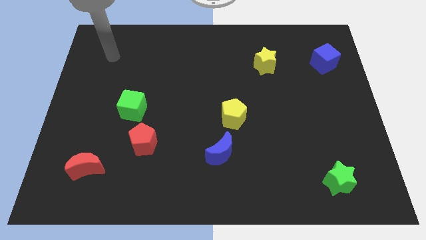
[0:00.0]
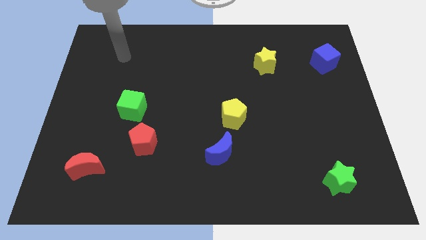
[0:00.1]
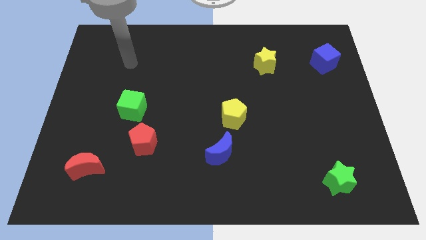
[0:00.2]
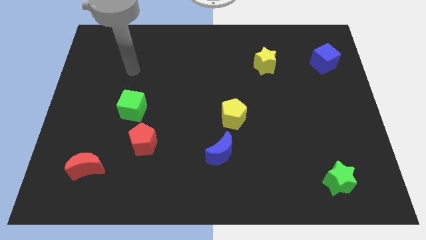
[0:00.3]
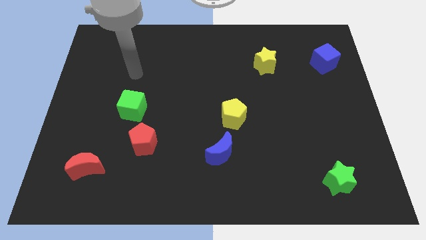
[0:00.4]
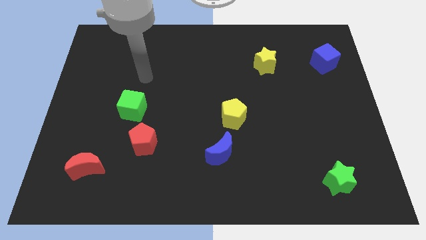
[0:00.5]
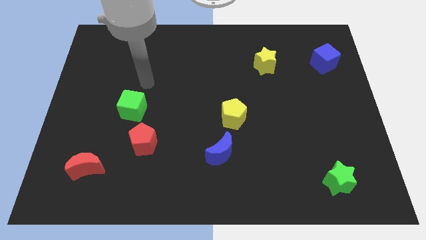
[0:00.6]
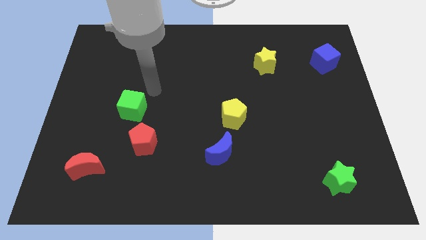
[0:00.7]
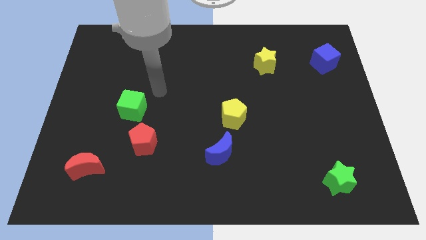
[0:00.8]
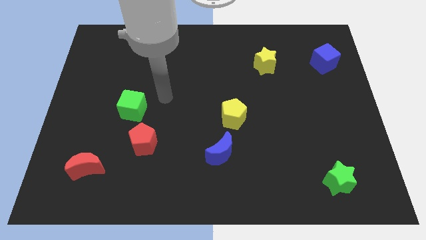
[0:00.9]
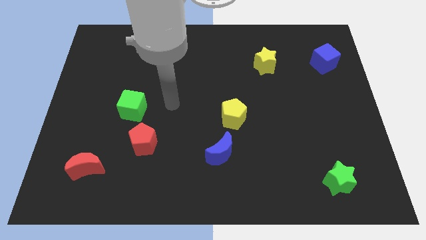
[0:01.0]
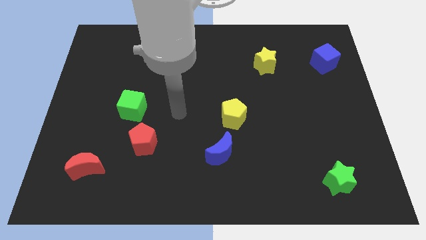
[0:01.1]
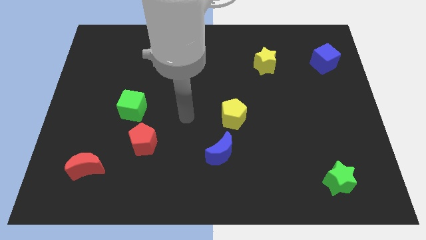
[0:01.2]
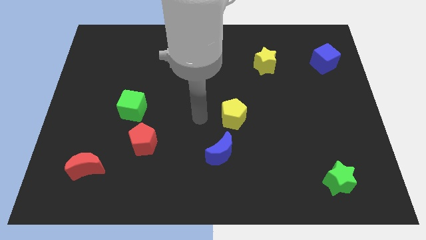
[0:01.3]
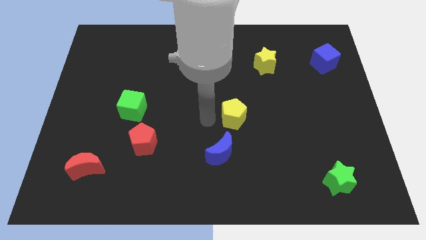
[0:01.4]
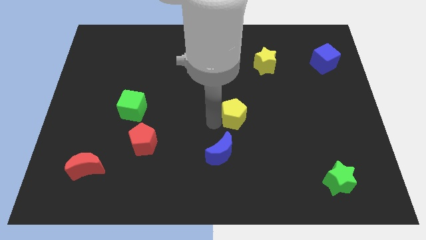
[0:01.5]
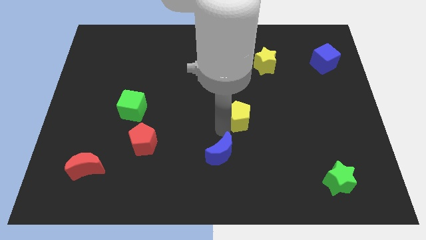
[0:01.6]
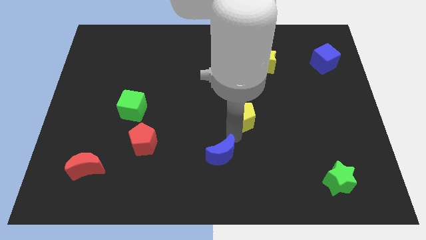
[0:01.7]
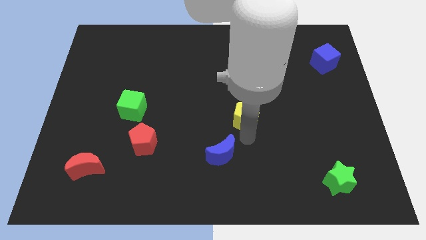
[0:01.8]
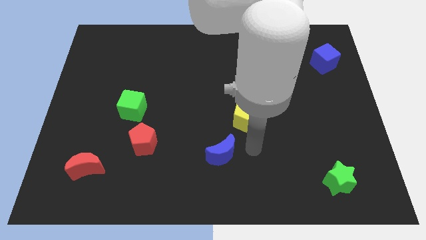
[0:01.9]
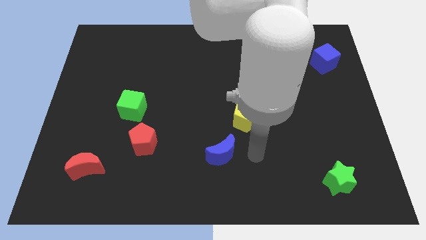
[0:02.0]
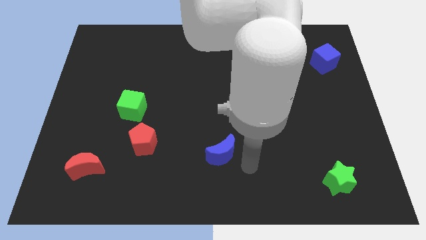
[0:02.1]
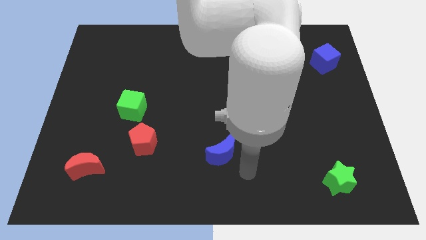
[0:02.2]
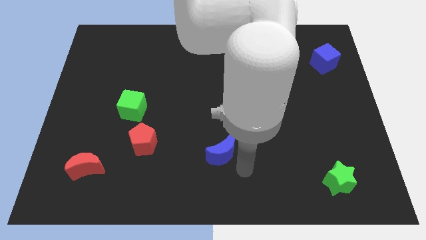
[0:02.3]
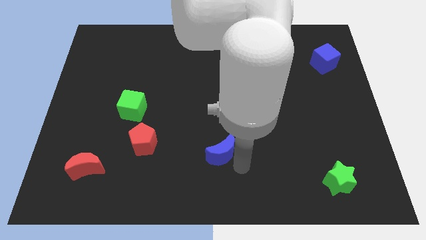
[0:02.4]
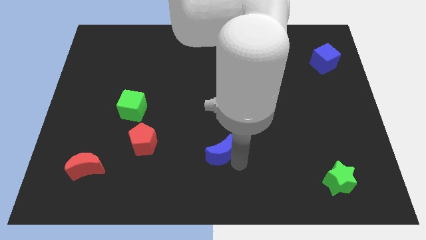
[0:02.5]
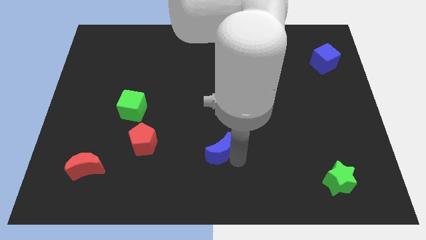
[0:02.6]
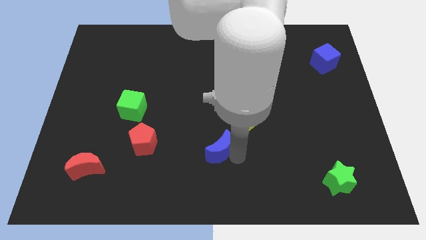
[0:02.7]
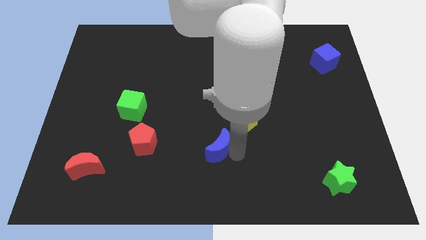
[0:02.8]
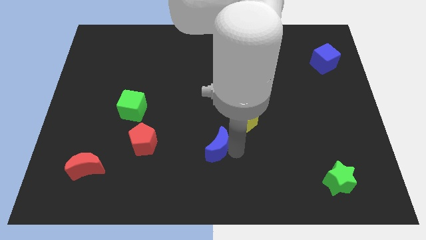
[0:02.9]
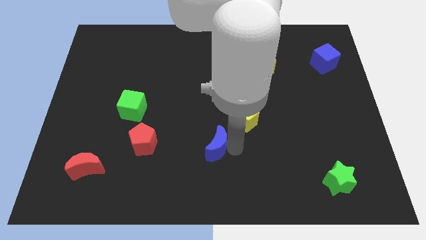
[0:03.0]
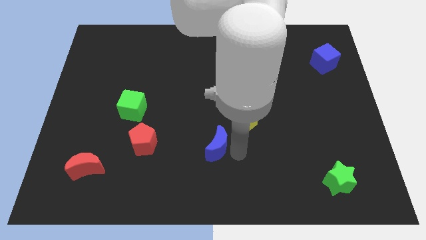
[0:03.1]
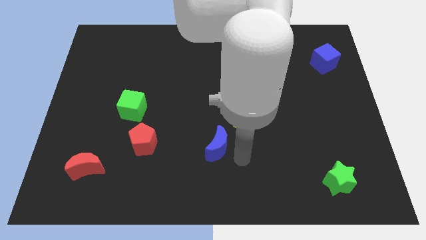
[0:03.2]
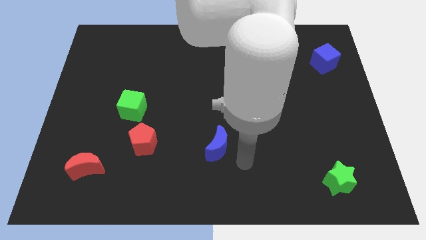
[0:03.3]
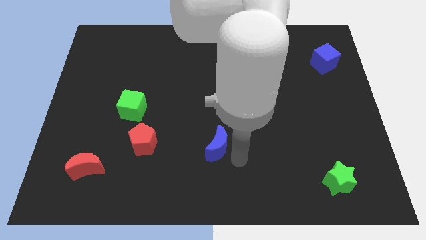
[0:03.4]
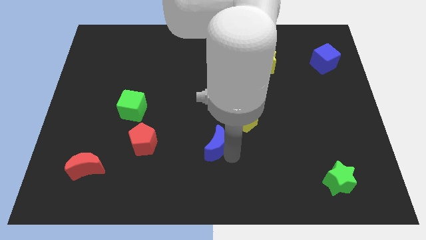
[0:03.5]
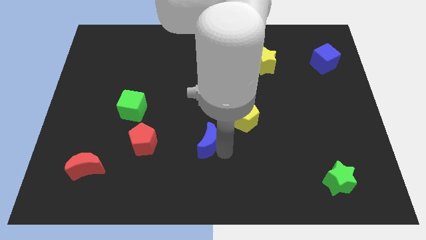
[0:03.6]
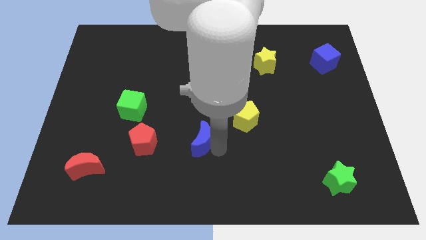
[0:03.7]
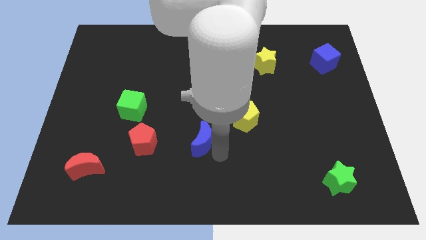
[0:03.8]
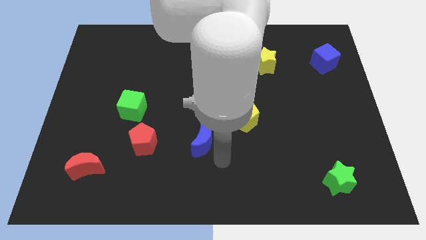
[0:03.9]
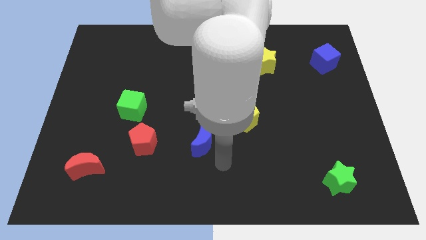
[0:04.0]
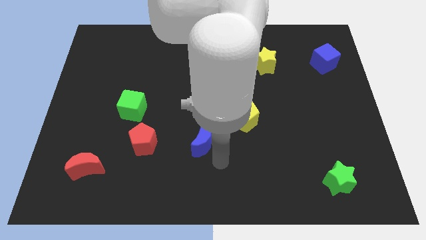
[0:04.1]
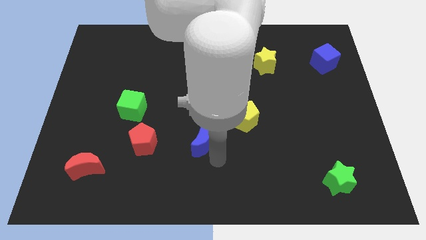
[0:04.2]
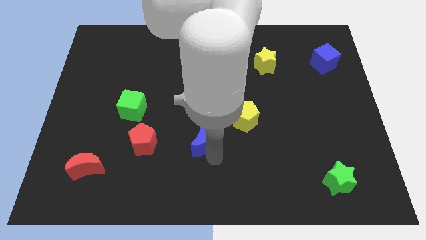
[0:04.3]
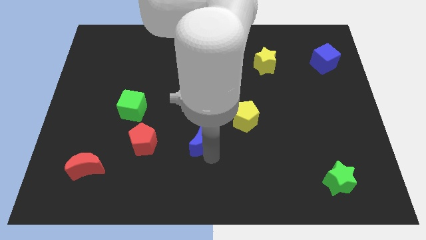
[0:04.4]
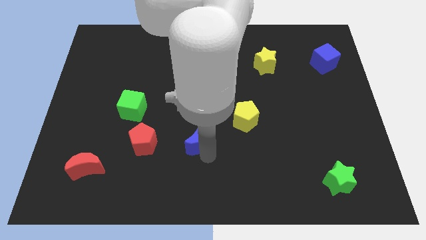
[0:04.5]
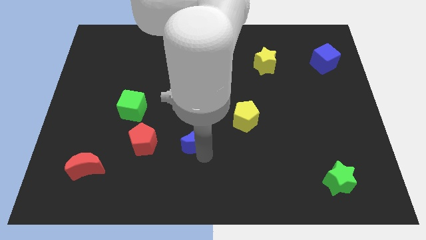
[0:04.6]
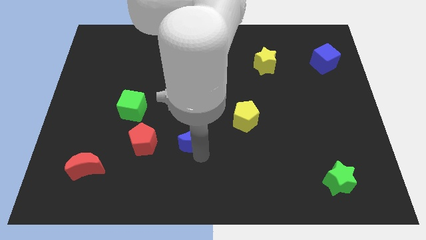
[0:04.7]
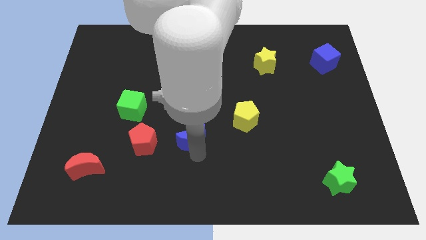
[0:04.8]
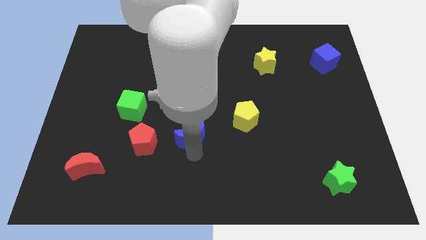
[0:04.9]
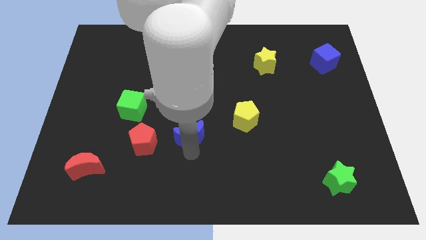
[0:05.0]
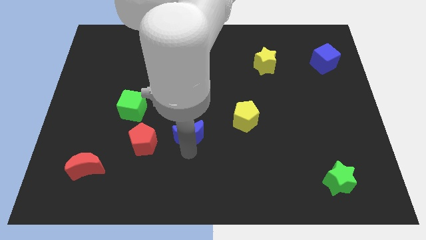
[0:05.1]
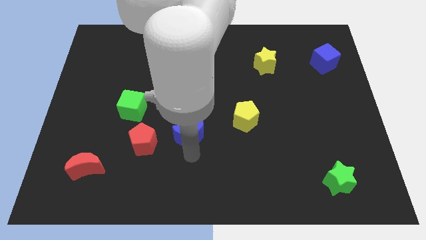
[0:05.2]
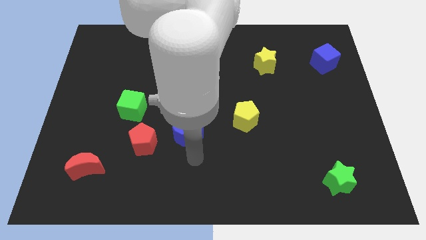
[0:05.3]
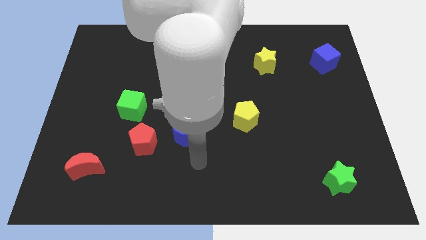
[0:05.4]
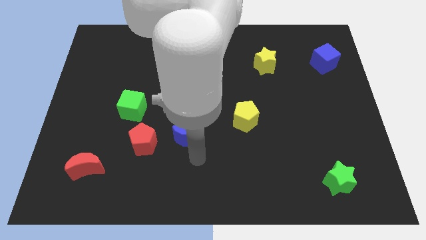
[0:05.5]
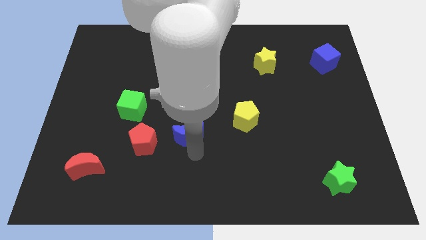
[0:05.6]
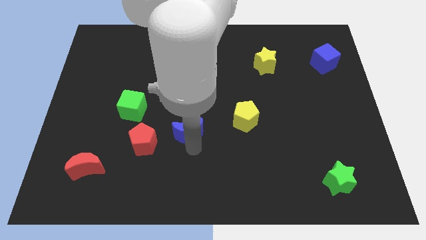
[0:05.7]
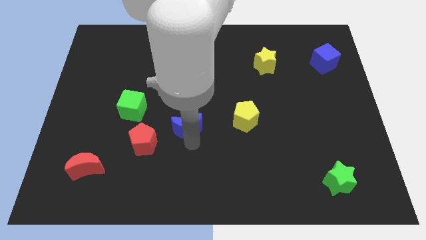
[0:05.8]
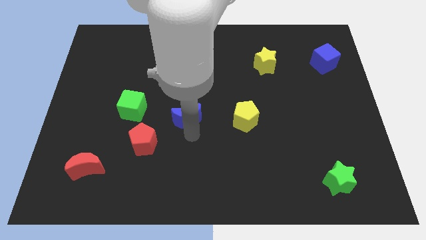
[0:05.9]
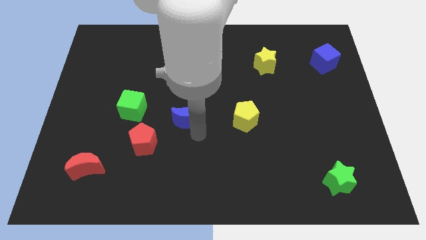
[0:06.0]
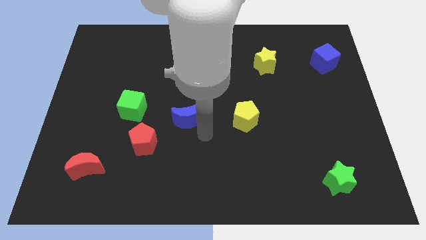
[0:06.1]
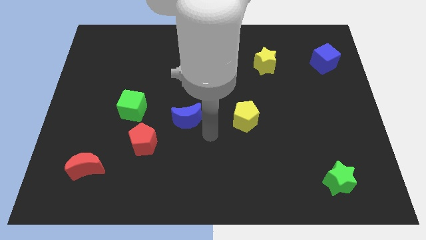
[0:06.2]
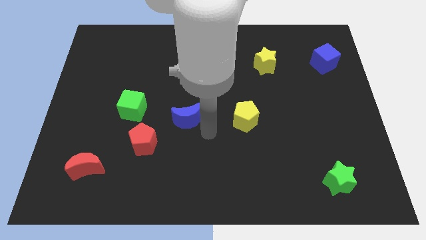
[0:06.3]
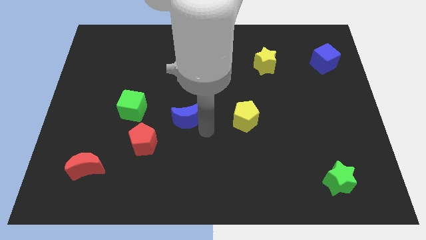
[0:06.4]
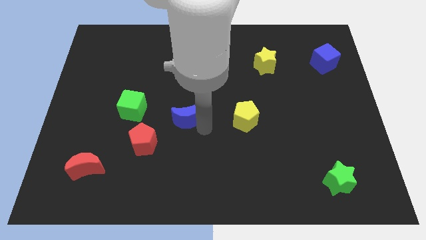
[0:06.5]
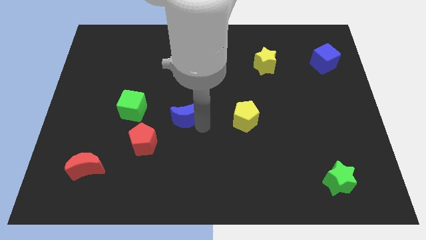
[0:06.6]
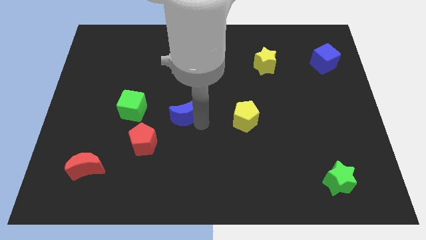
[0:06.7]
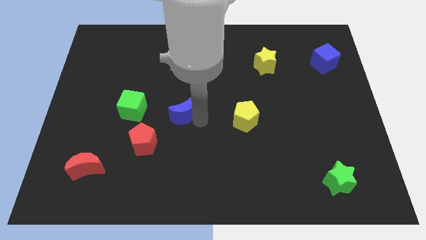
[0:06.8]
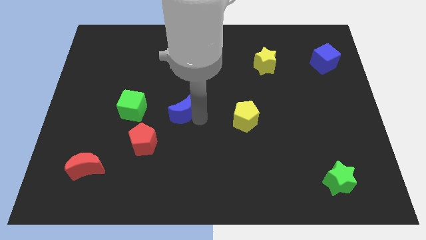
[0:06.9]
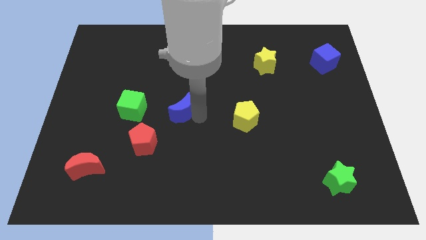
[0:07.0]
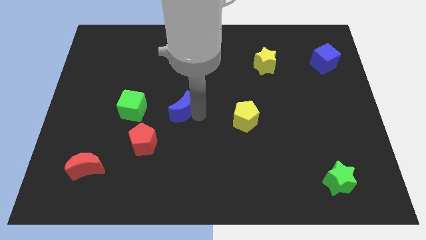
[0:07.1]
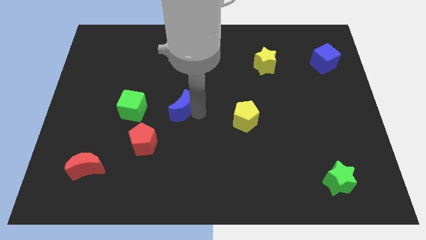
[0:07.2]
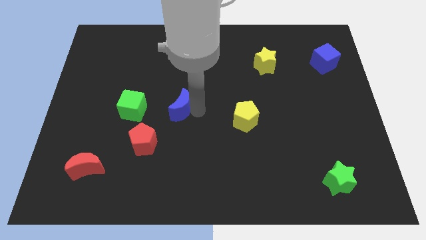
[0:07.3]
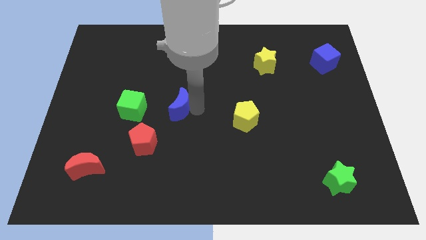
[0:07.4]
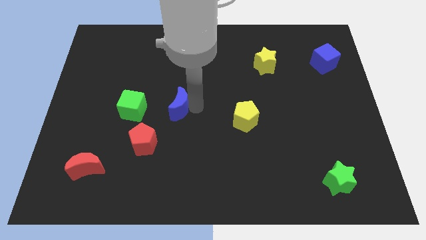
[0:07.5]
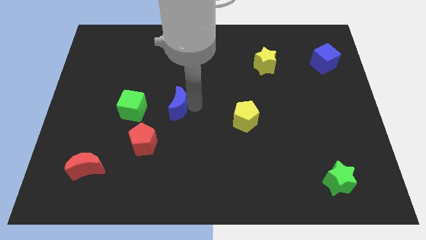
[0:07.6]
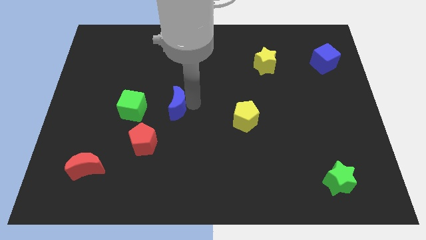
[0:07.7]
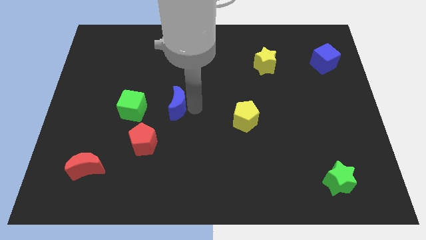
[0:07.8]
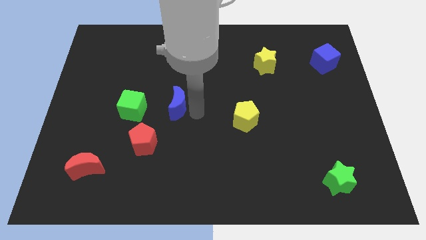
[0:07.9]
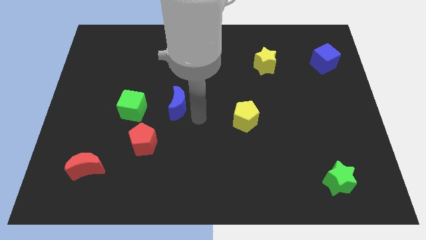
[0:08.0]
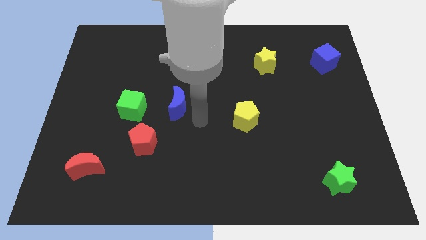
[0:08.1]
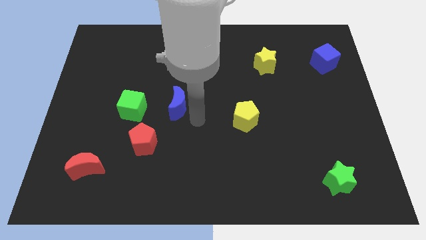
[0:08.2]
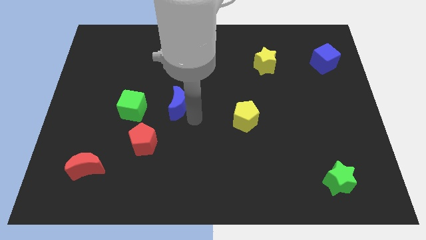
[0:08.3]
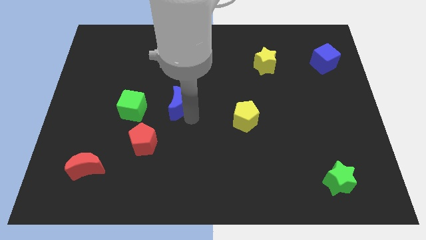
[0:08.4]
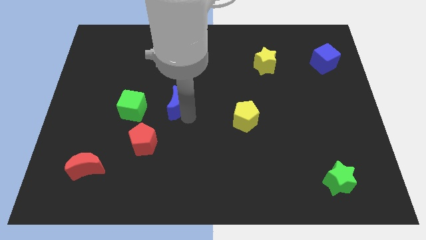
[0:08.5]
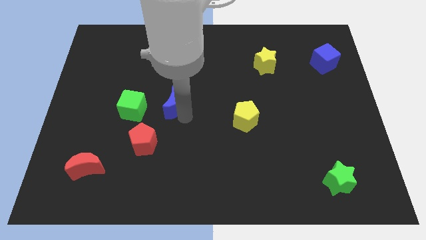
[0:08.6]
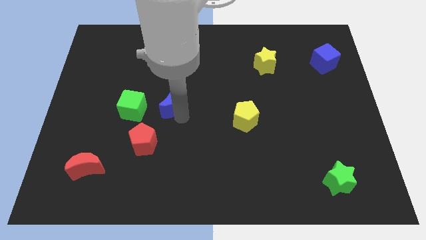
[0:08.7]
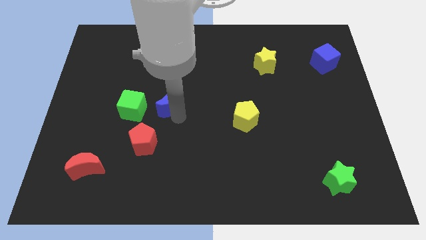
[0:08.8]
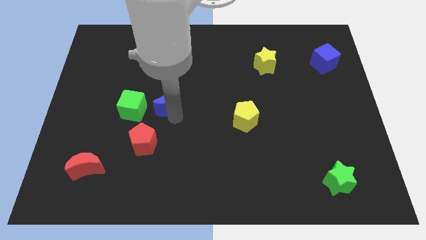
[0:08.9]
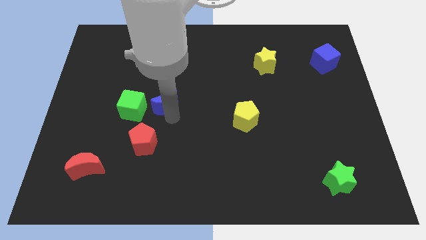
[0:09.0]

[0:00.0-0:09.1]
move the blue moon diagonally up and to the right of the green cube
